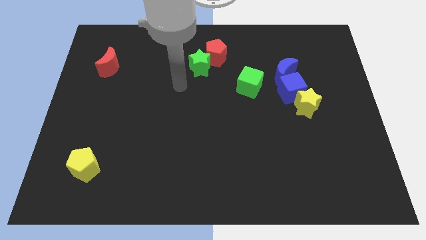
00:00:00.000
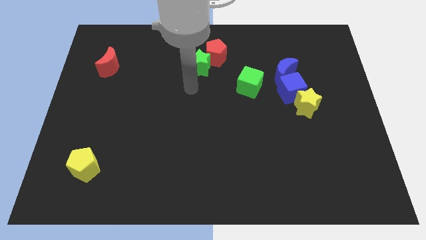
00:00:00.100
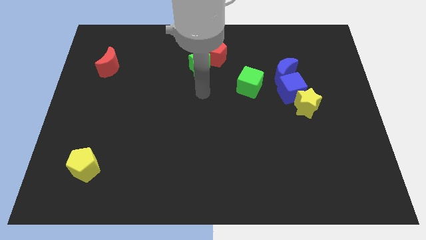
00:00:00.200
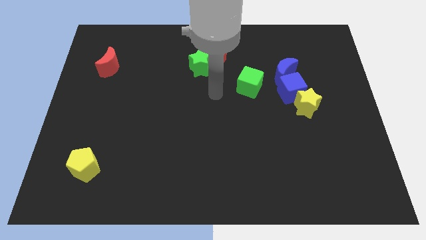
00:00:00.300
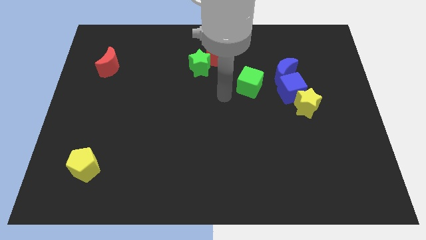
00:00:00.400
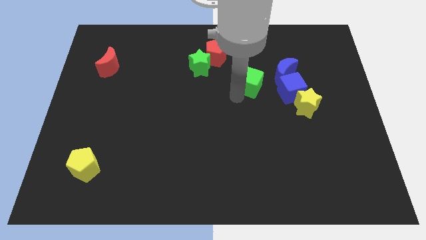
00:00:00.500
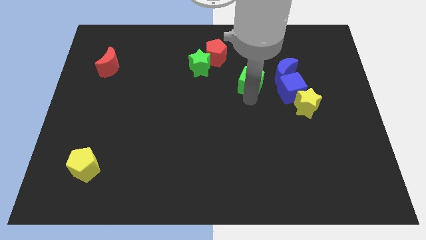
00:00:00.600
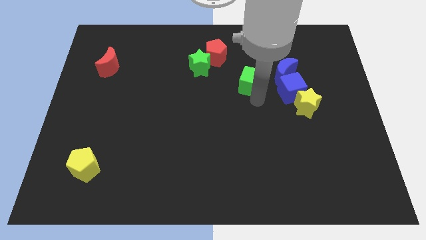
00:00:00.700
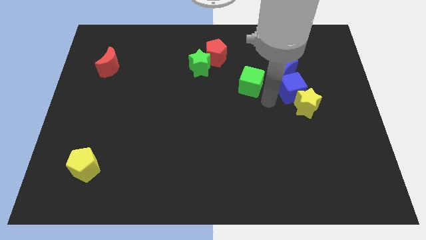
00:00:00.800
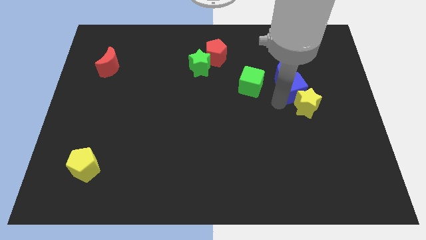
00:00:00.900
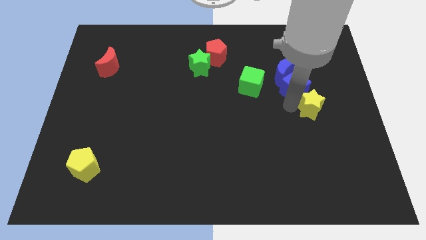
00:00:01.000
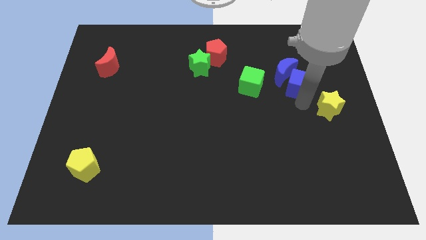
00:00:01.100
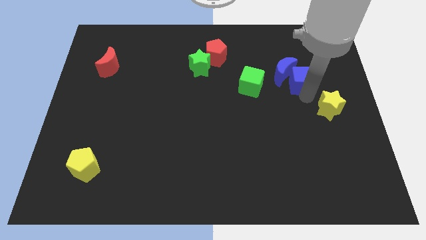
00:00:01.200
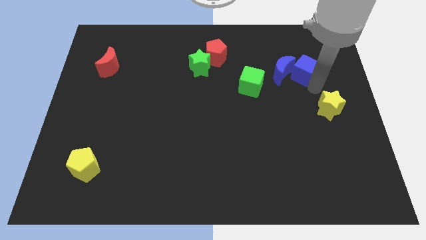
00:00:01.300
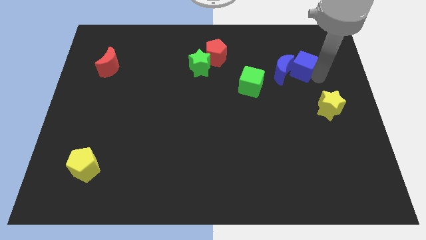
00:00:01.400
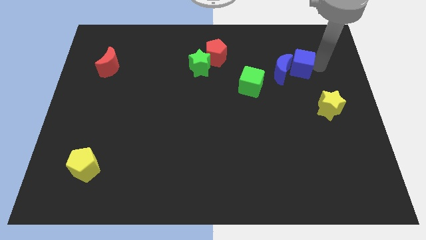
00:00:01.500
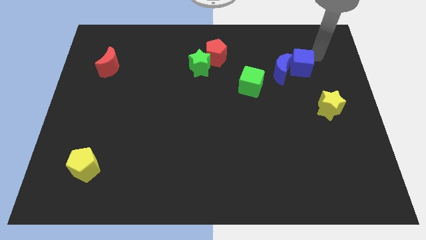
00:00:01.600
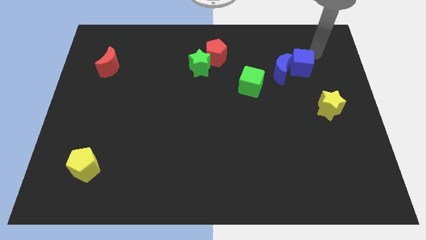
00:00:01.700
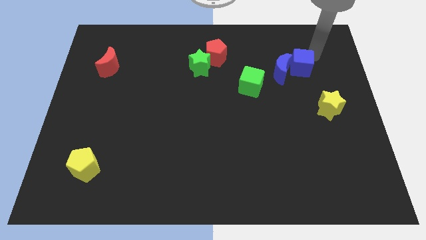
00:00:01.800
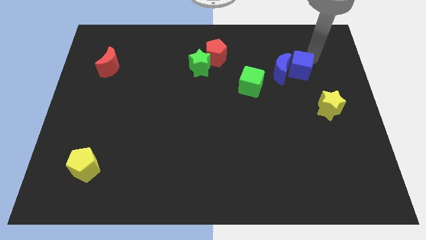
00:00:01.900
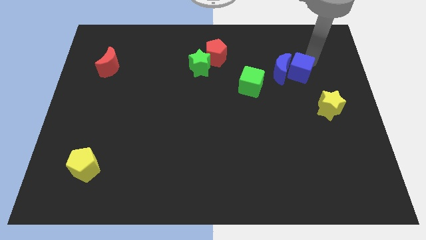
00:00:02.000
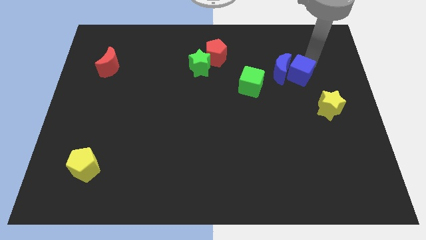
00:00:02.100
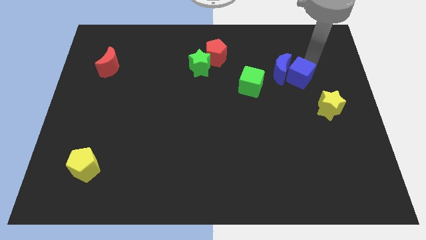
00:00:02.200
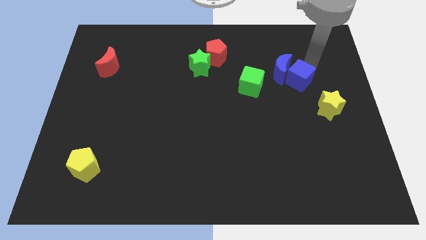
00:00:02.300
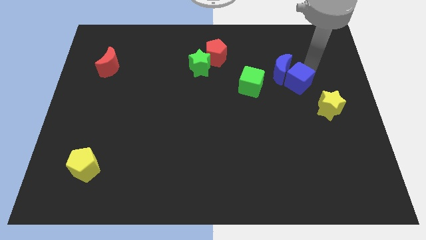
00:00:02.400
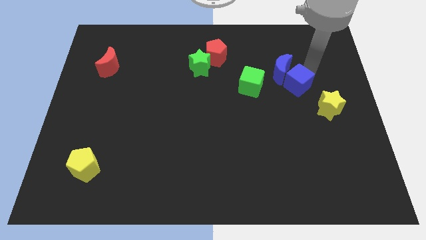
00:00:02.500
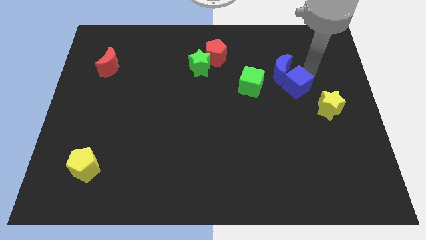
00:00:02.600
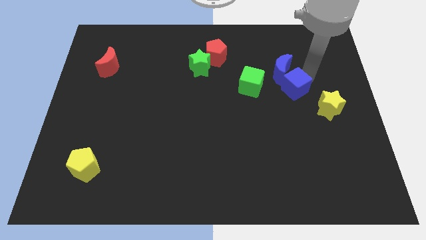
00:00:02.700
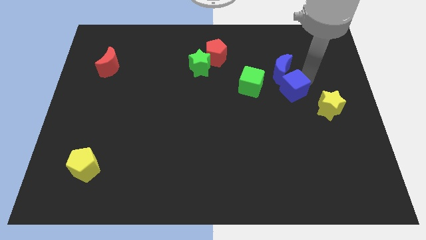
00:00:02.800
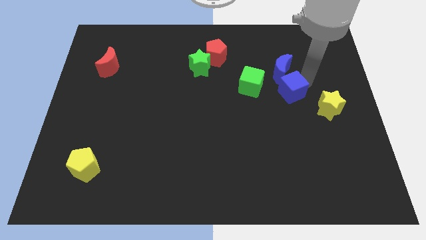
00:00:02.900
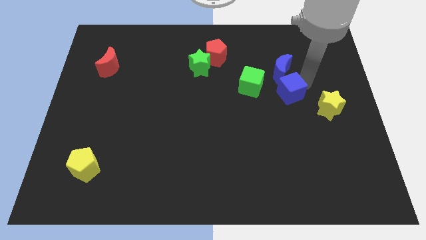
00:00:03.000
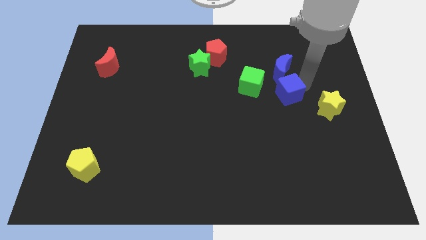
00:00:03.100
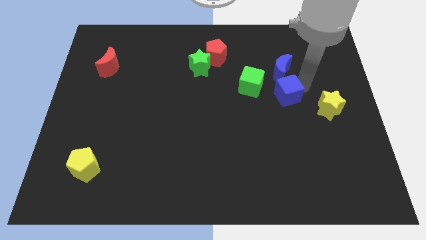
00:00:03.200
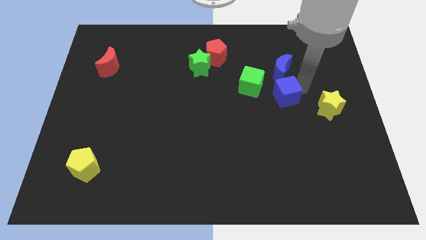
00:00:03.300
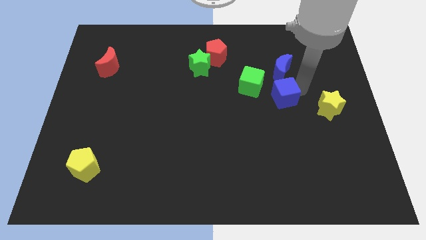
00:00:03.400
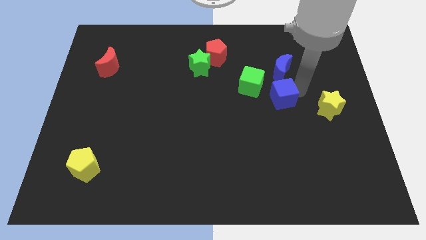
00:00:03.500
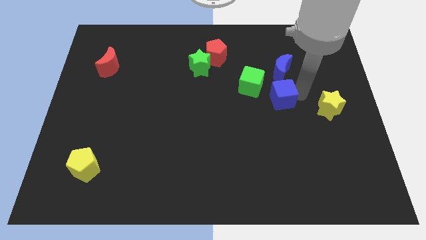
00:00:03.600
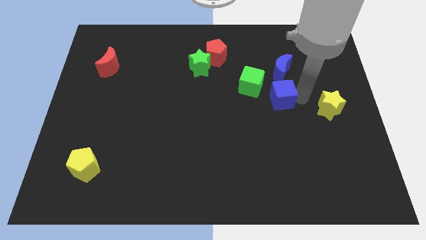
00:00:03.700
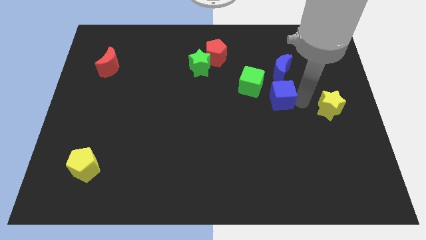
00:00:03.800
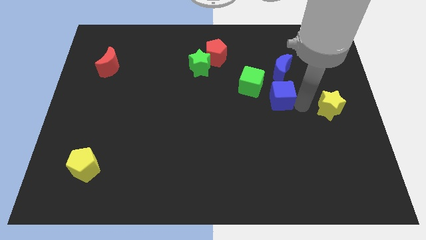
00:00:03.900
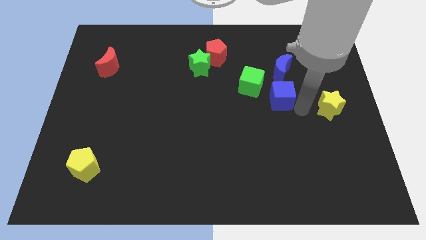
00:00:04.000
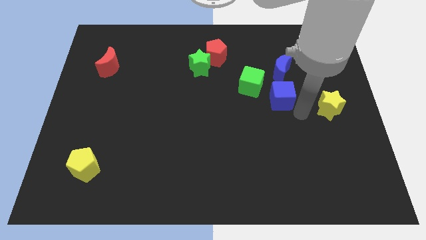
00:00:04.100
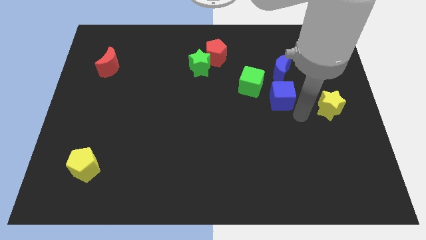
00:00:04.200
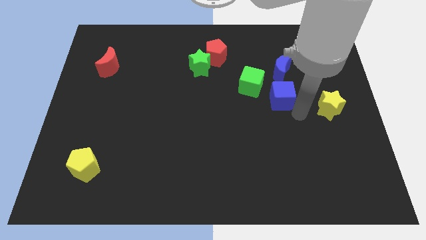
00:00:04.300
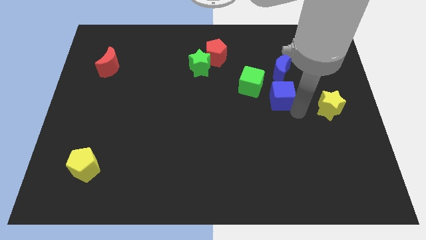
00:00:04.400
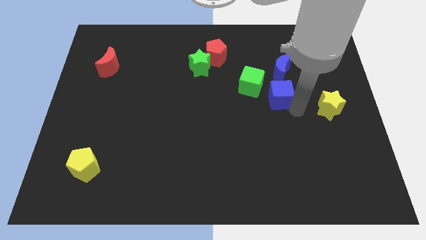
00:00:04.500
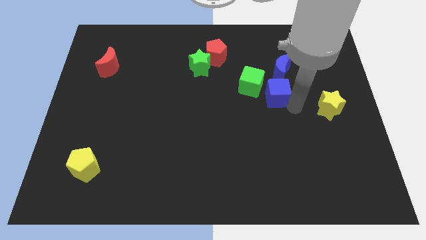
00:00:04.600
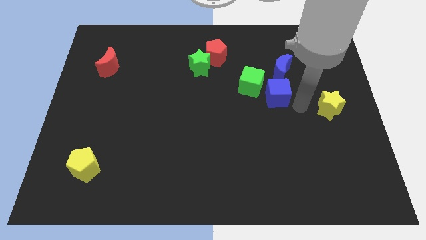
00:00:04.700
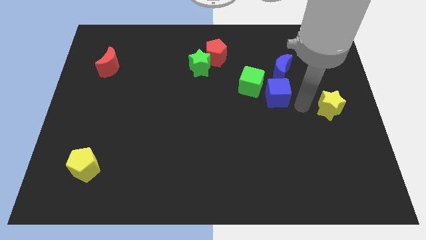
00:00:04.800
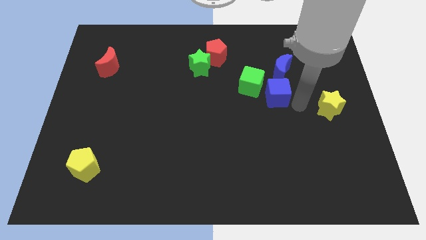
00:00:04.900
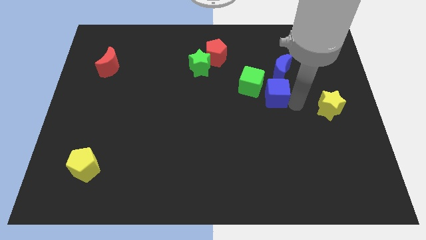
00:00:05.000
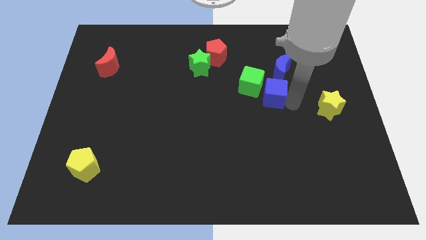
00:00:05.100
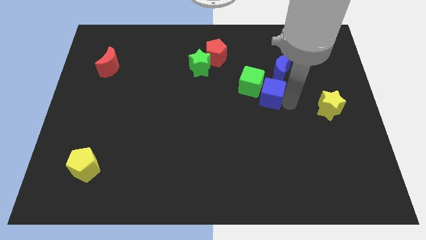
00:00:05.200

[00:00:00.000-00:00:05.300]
move the blue cube to the green cube

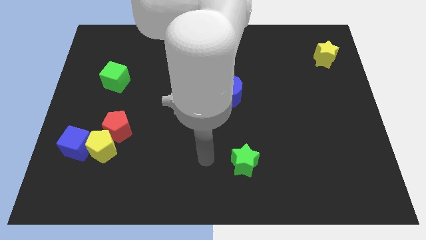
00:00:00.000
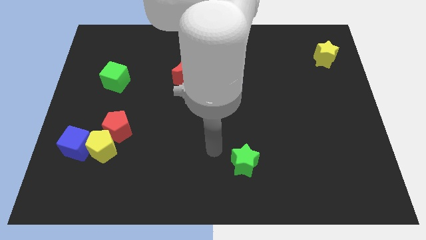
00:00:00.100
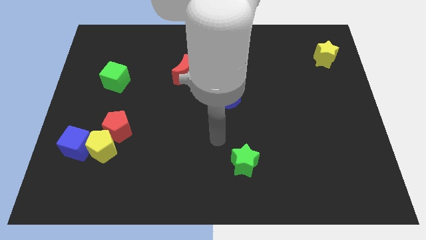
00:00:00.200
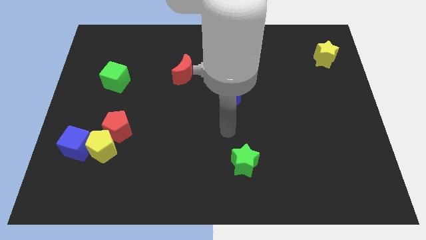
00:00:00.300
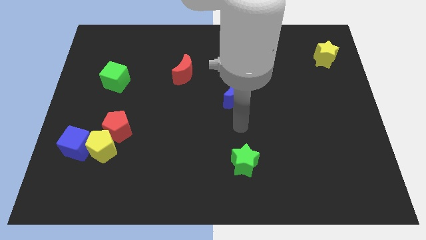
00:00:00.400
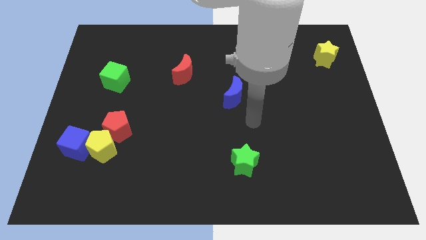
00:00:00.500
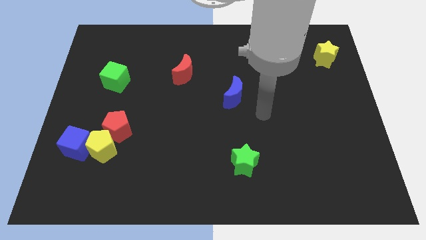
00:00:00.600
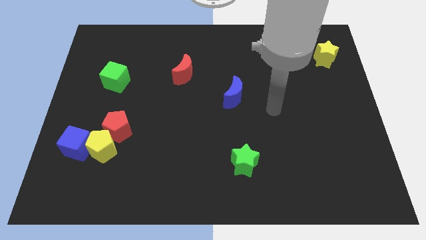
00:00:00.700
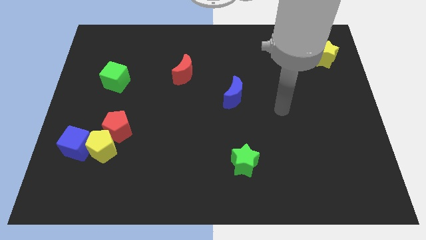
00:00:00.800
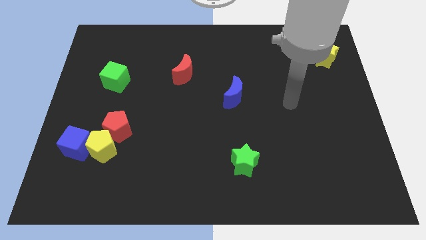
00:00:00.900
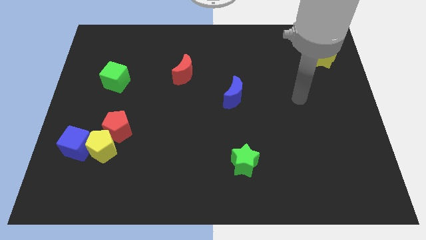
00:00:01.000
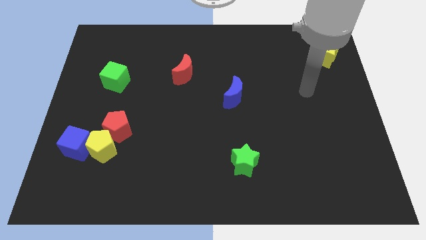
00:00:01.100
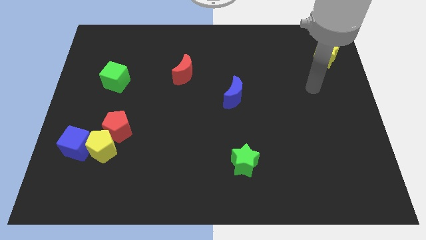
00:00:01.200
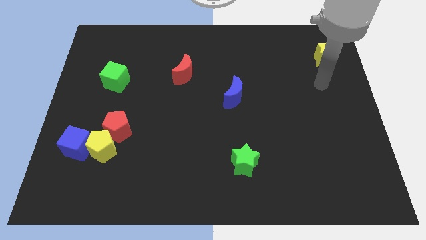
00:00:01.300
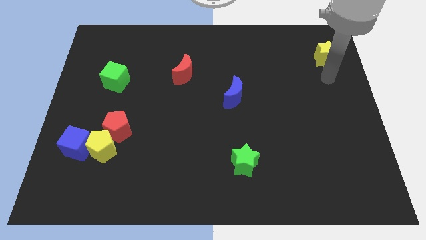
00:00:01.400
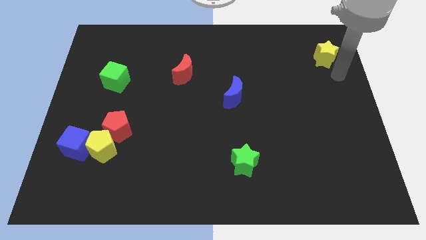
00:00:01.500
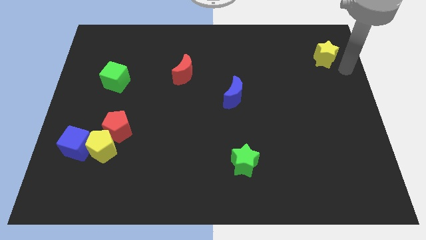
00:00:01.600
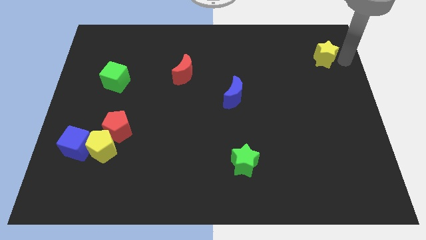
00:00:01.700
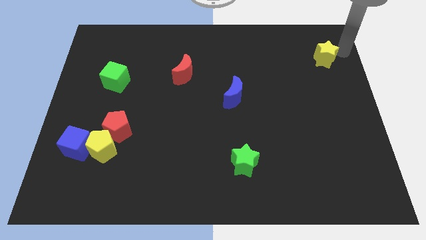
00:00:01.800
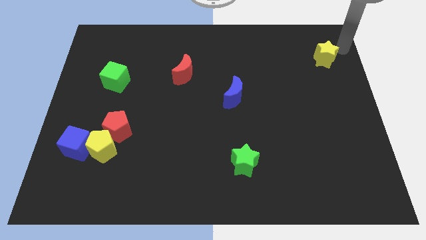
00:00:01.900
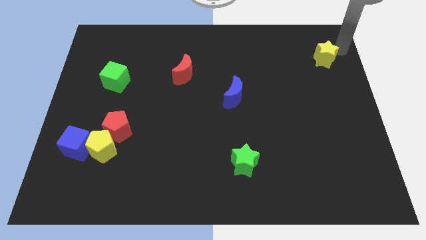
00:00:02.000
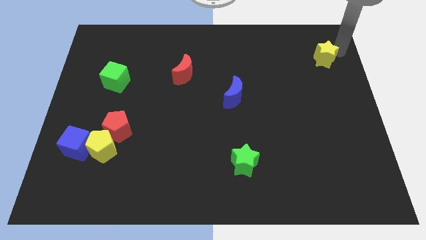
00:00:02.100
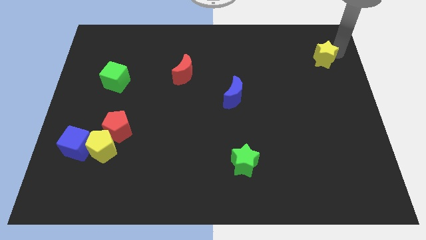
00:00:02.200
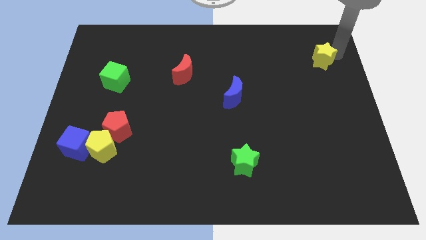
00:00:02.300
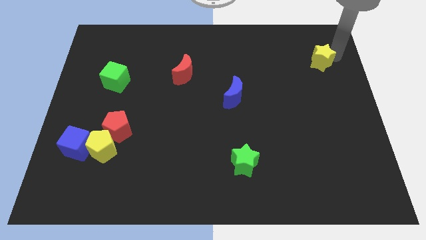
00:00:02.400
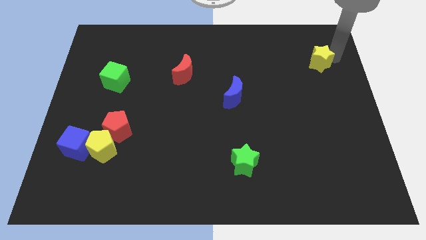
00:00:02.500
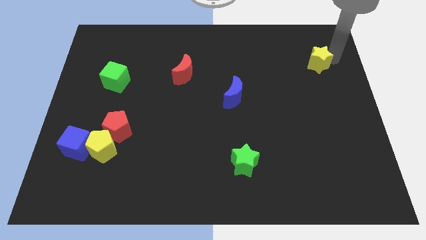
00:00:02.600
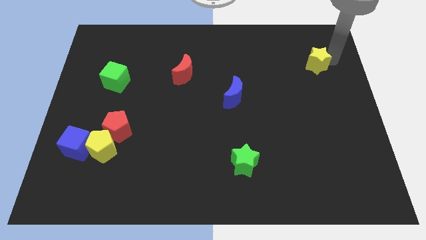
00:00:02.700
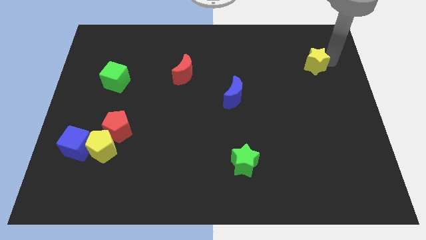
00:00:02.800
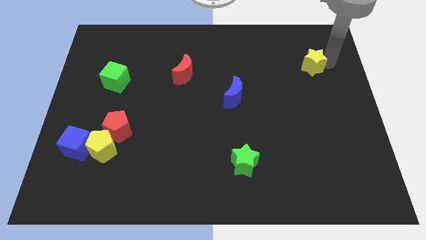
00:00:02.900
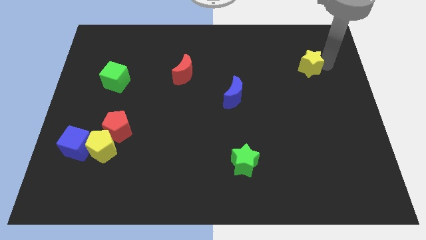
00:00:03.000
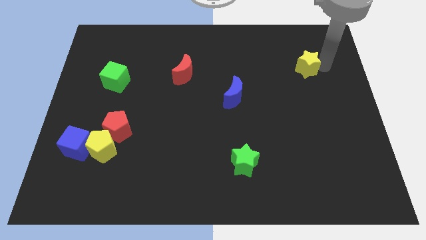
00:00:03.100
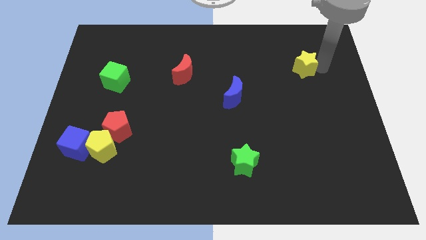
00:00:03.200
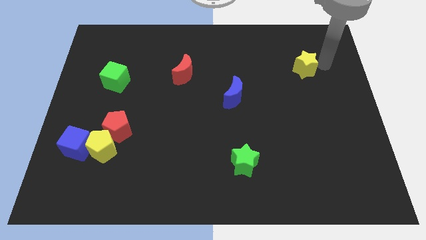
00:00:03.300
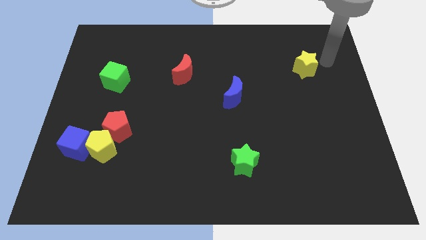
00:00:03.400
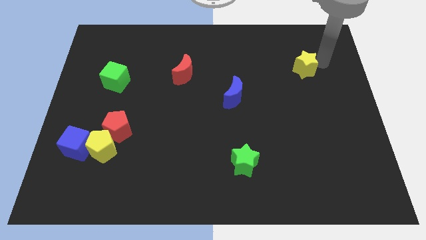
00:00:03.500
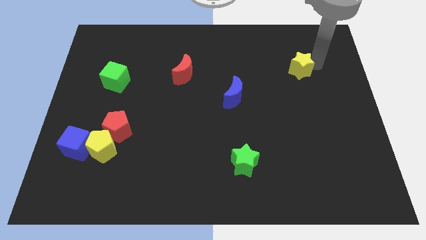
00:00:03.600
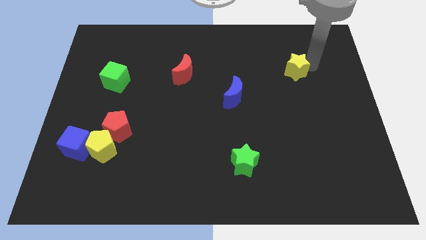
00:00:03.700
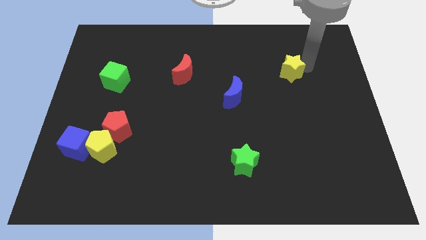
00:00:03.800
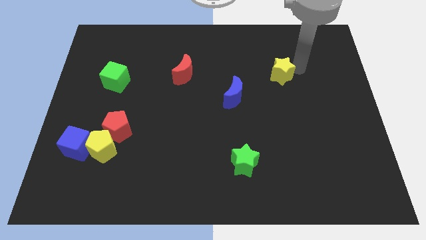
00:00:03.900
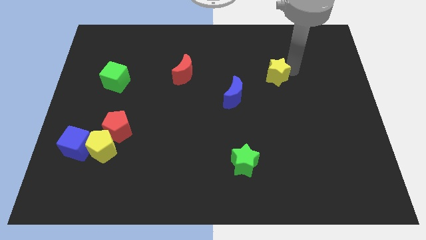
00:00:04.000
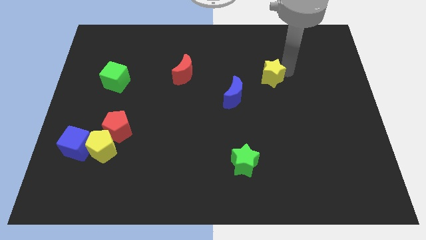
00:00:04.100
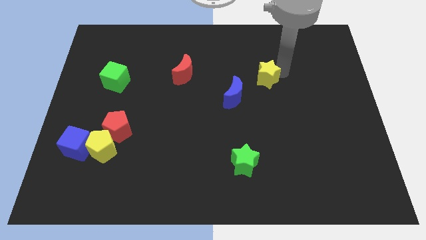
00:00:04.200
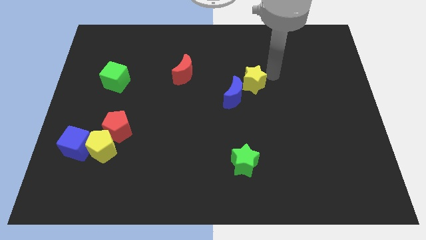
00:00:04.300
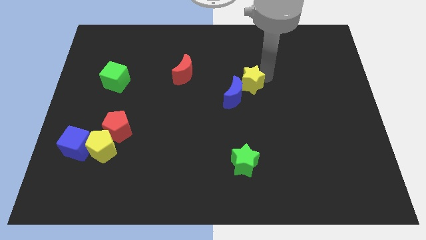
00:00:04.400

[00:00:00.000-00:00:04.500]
push the yellow star close to the blue moon
